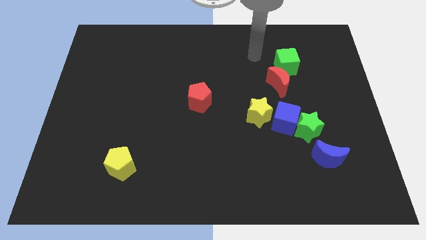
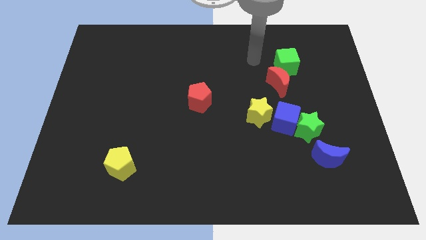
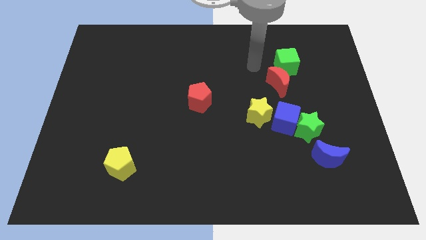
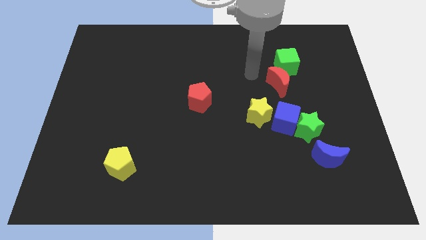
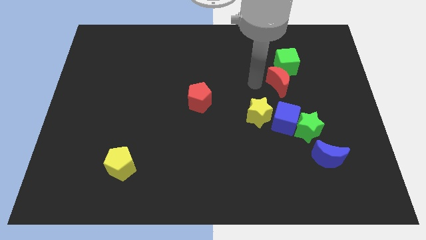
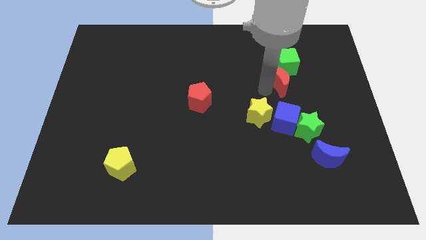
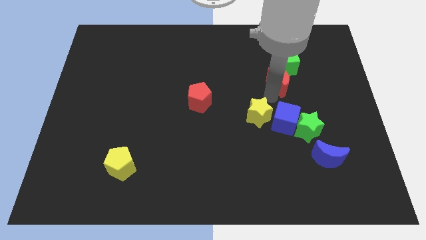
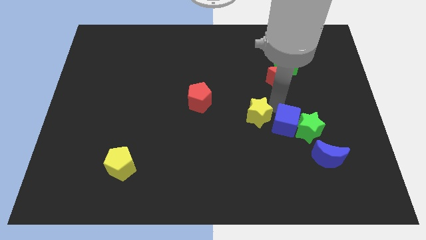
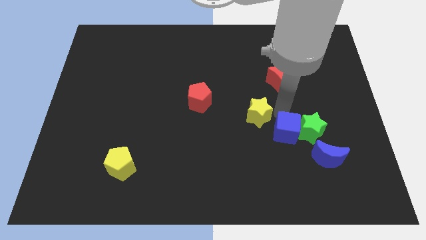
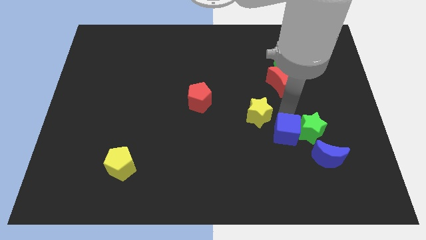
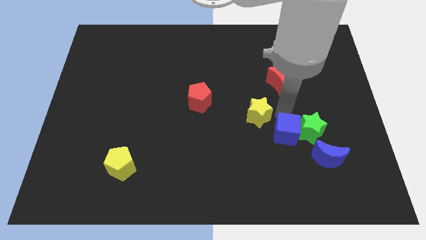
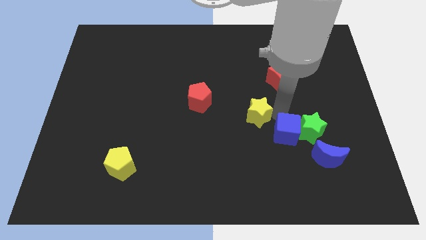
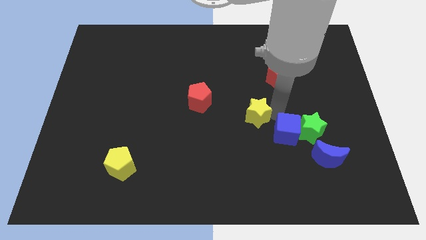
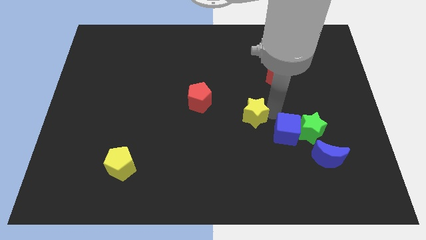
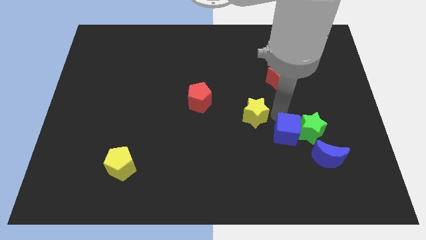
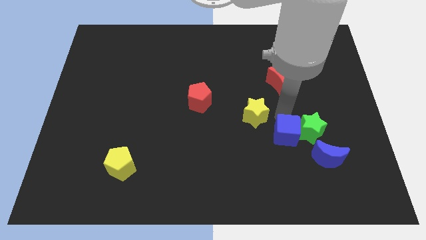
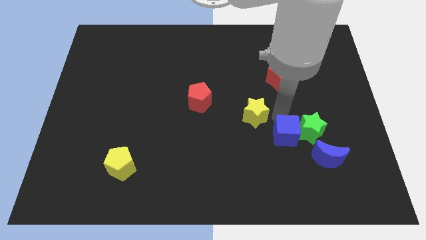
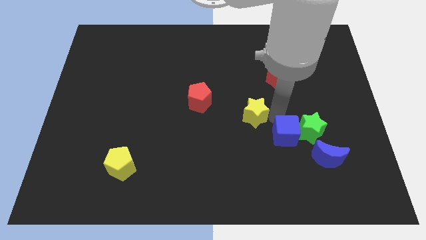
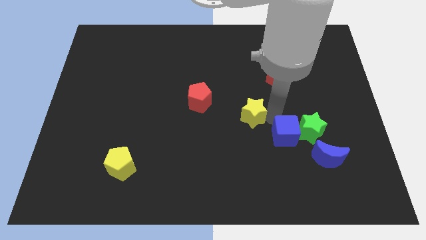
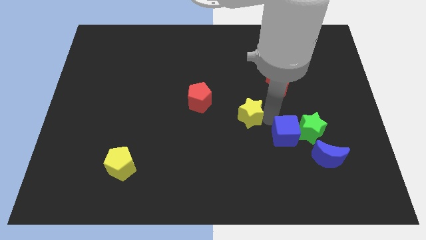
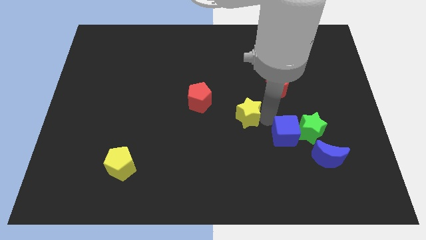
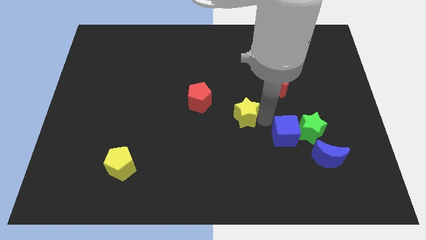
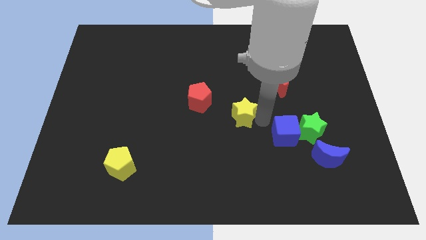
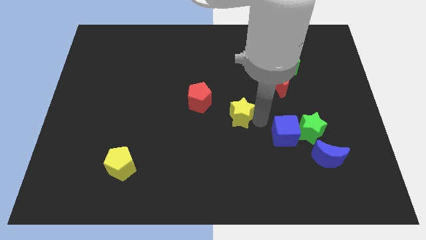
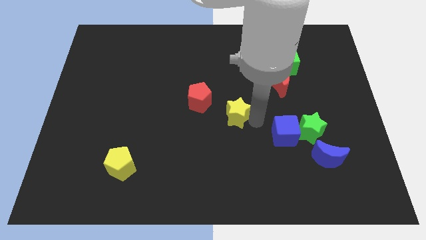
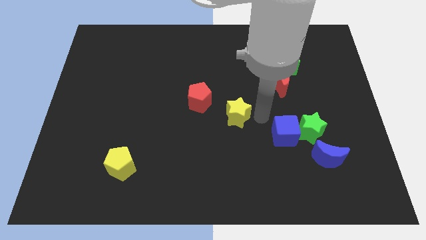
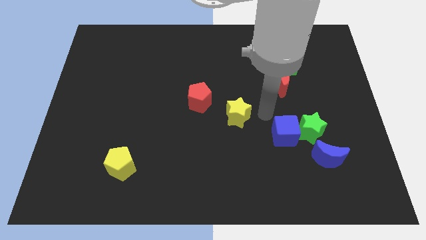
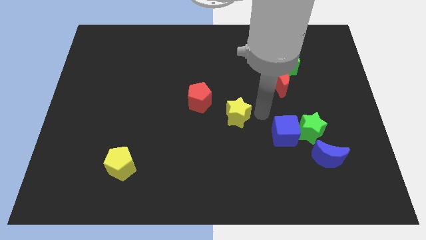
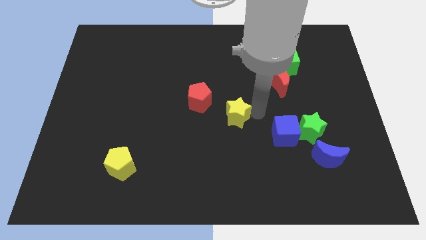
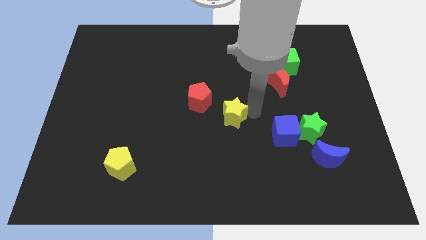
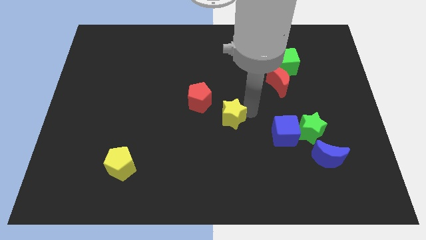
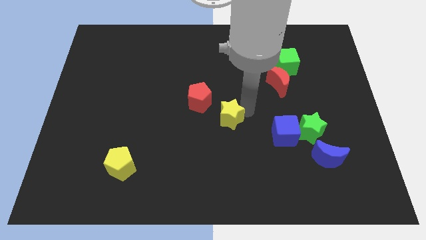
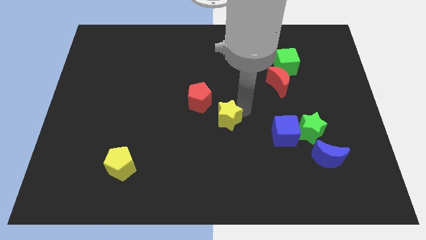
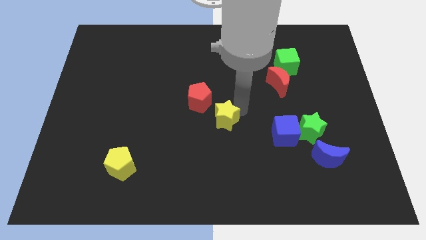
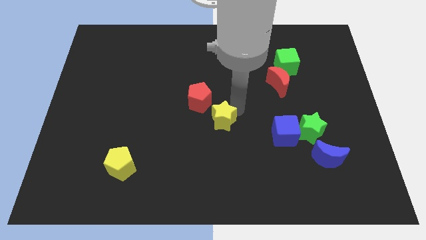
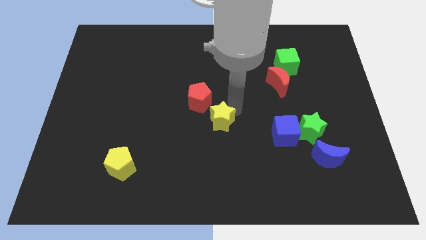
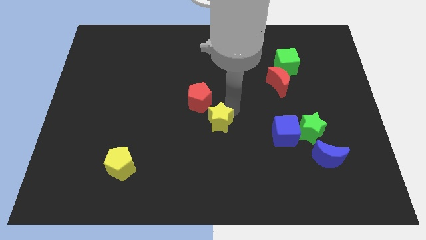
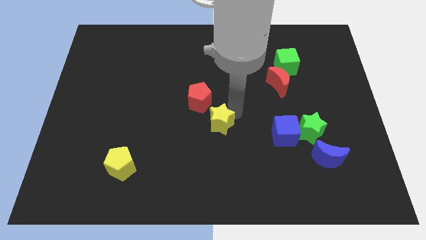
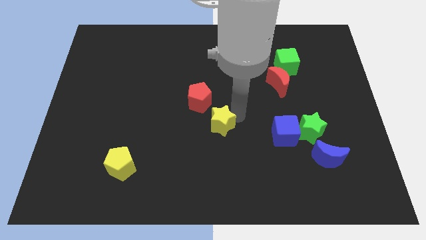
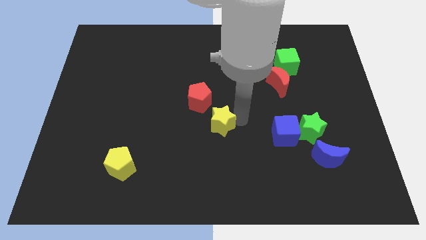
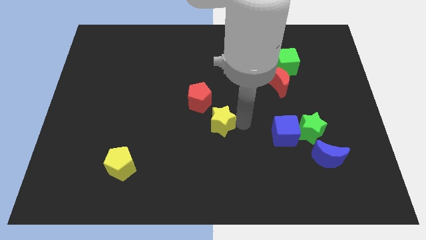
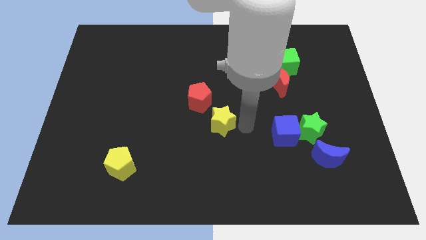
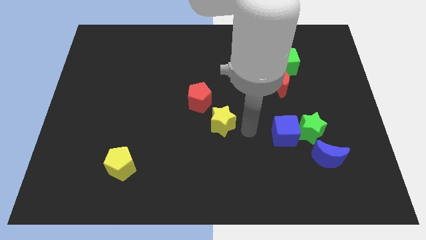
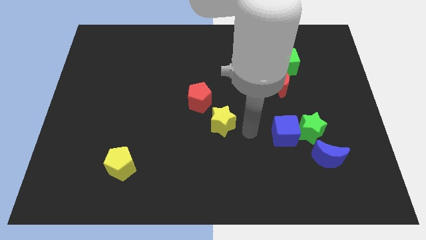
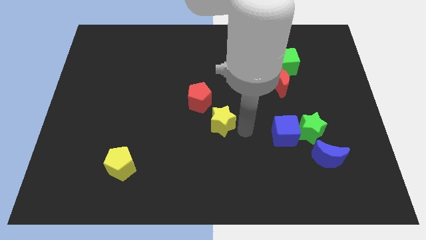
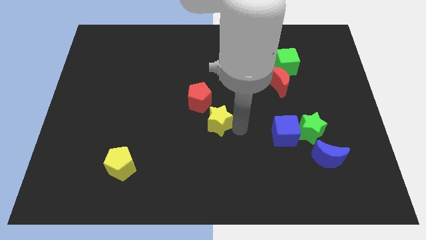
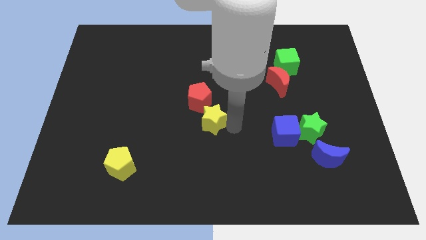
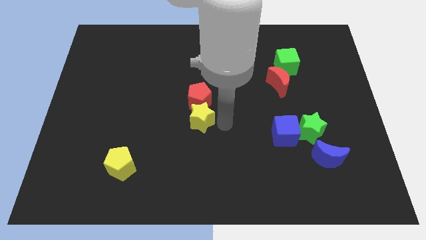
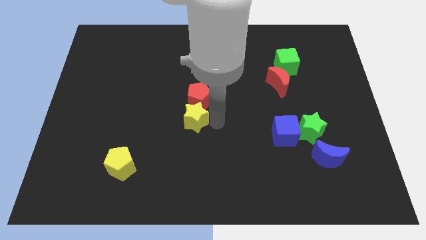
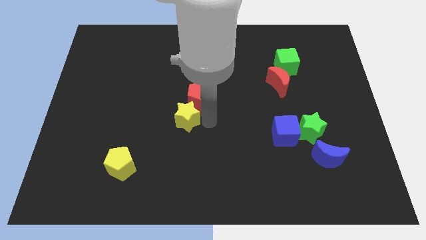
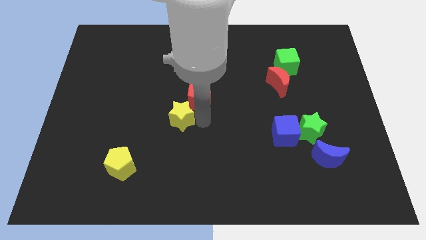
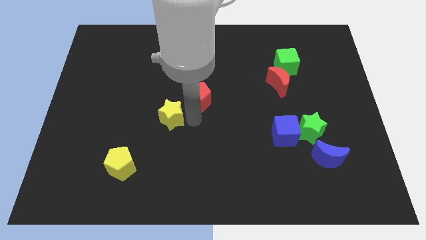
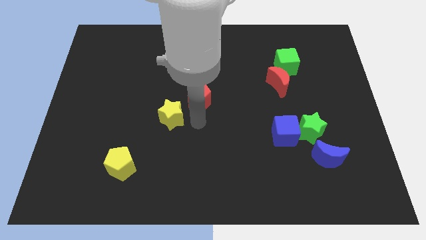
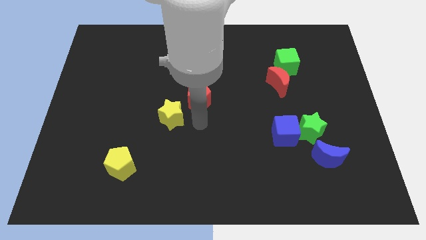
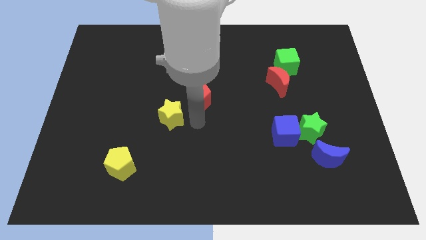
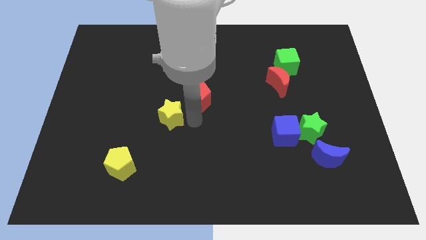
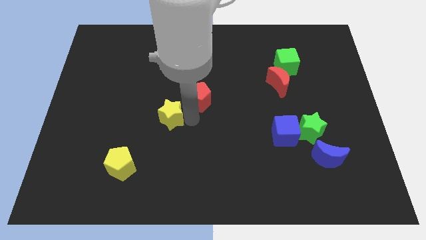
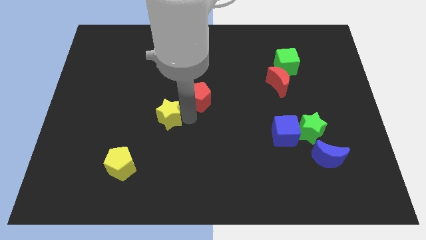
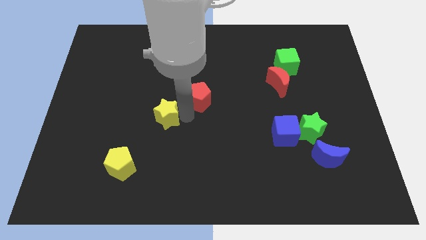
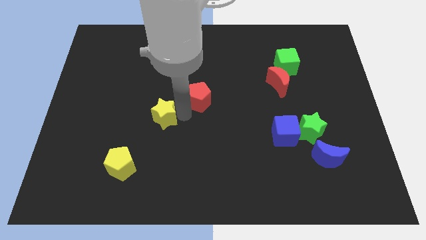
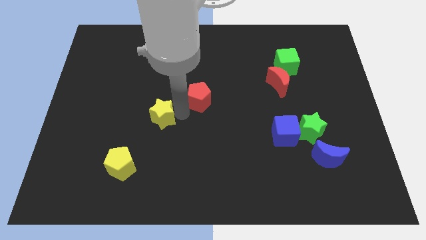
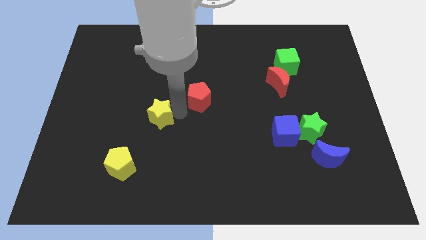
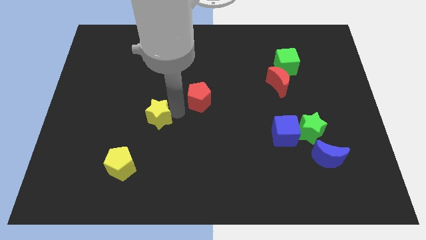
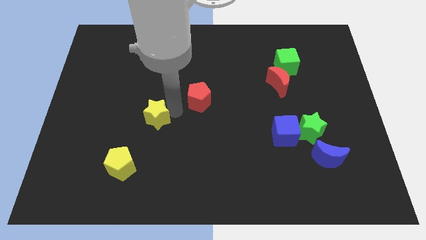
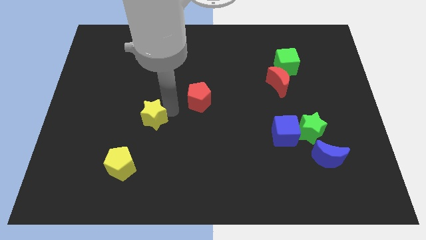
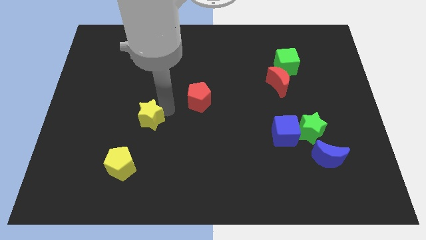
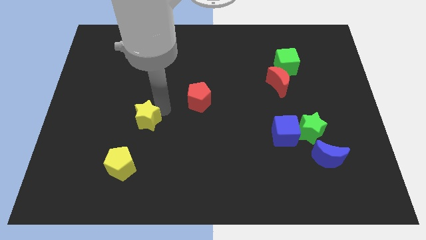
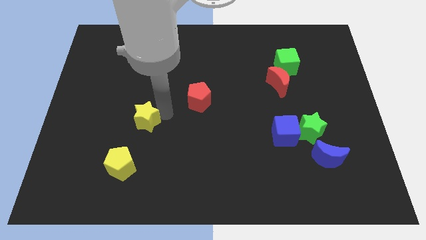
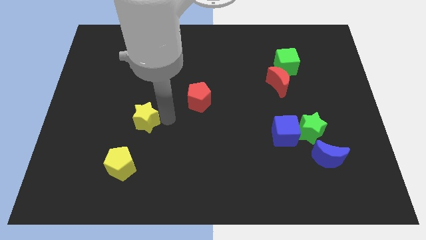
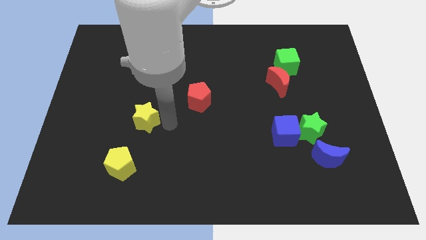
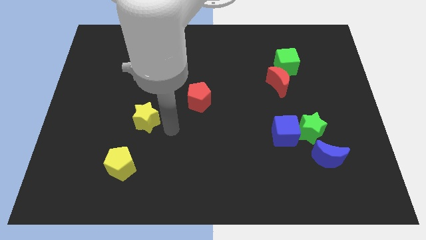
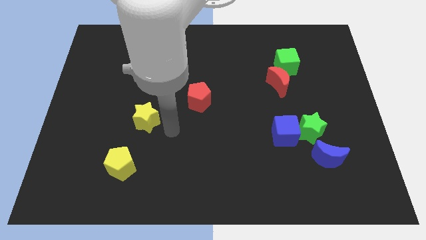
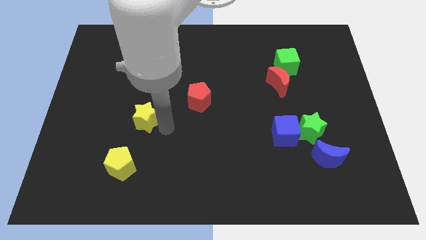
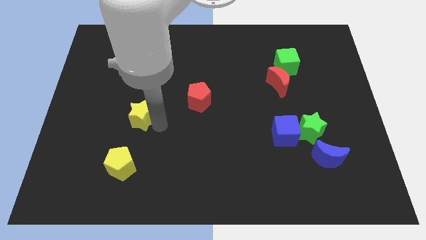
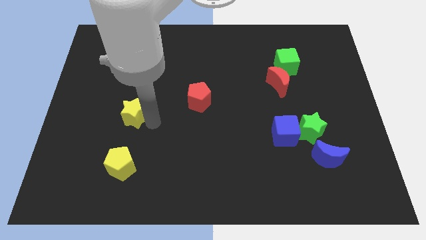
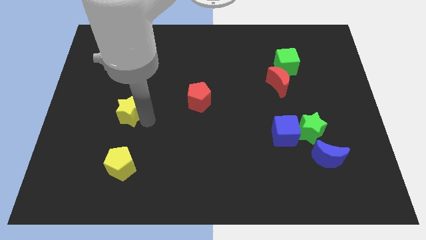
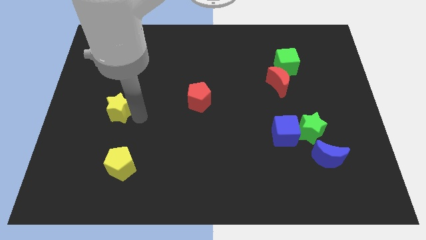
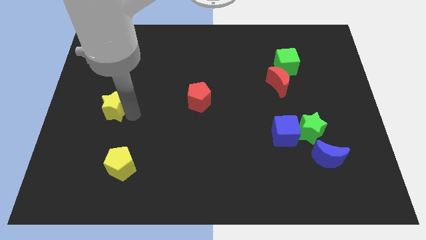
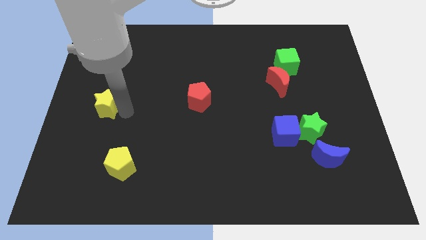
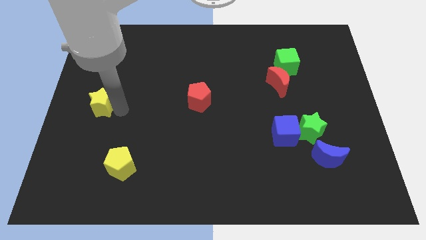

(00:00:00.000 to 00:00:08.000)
put the yellow star to the center left
